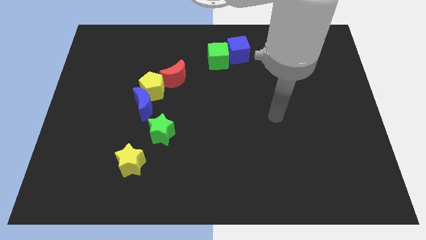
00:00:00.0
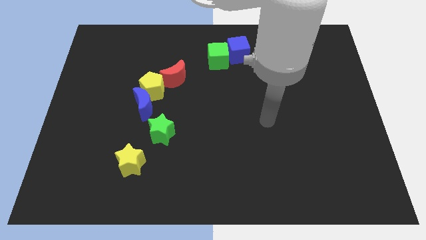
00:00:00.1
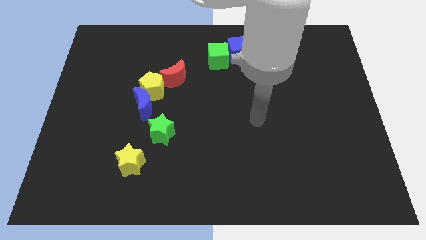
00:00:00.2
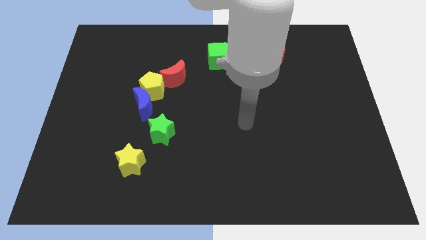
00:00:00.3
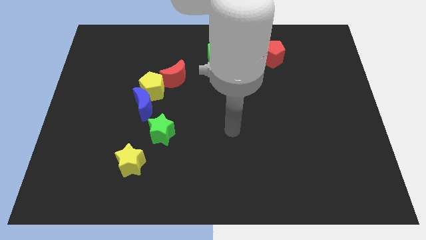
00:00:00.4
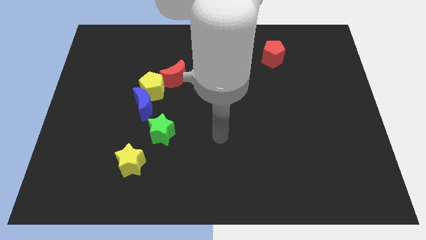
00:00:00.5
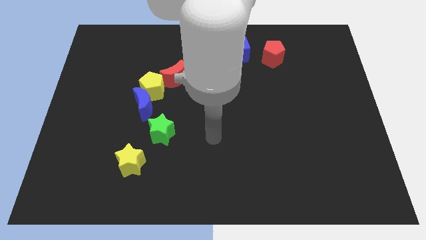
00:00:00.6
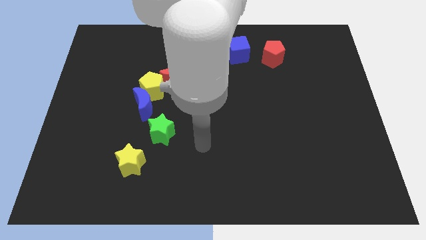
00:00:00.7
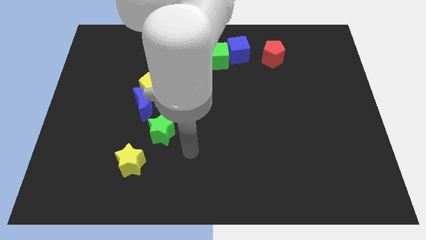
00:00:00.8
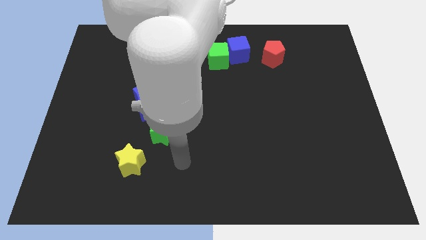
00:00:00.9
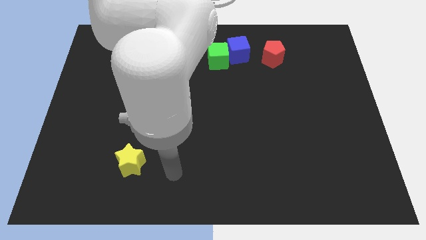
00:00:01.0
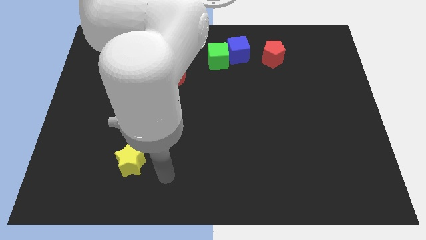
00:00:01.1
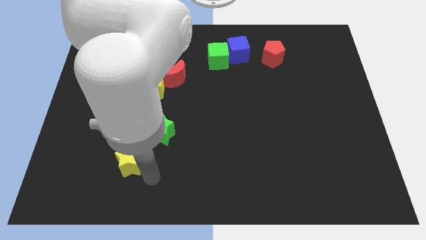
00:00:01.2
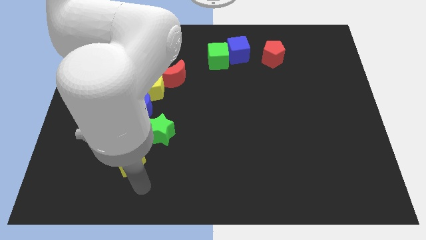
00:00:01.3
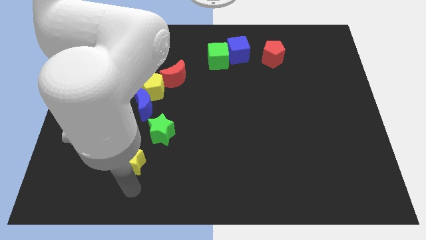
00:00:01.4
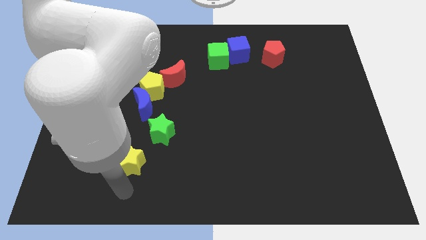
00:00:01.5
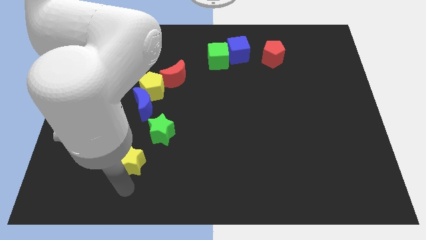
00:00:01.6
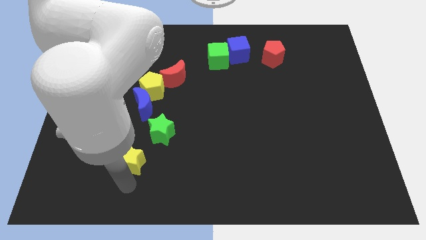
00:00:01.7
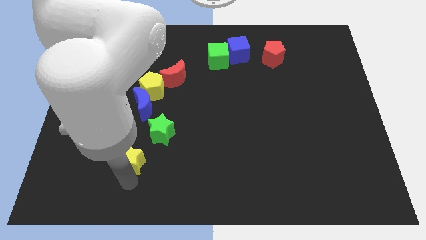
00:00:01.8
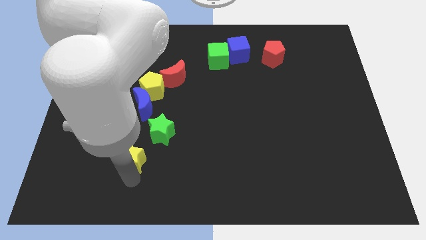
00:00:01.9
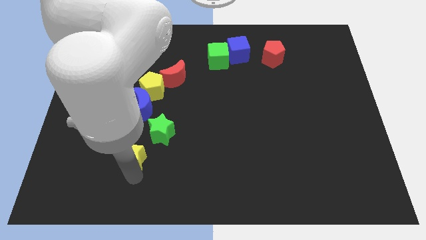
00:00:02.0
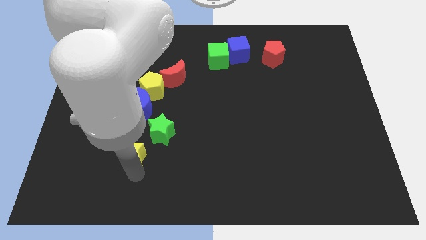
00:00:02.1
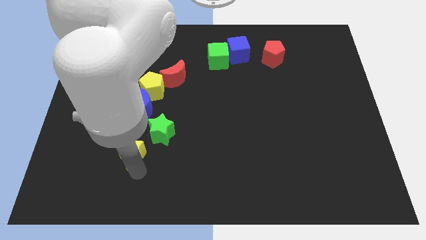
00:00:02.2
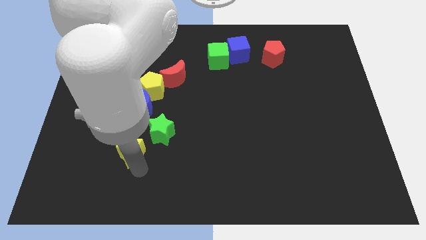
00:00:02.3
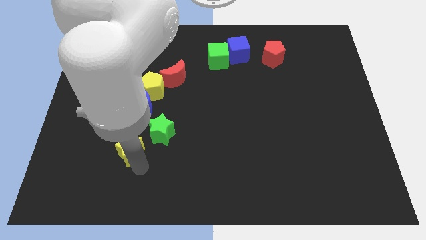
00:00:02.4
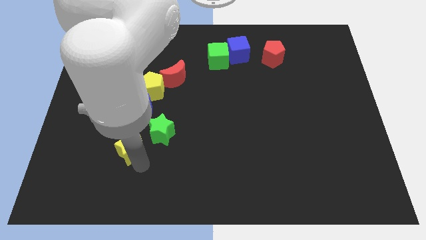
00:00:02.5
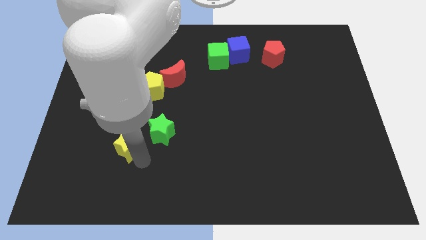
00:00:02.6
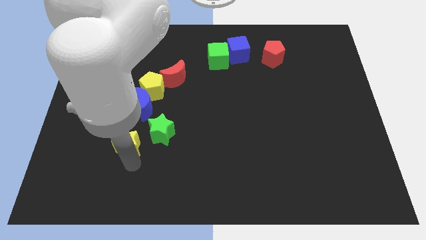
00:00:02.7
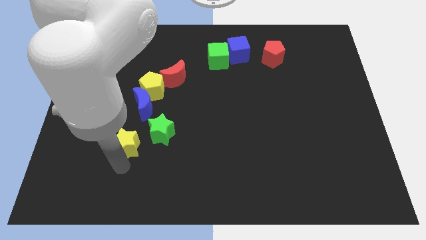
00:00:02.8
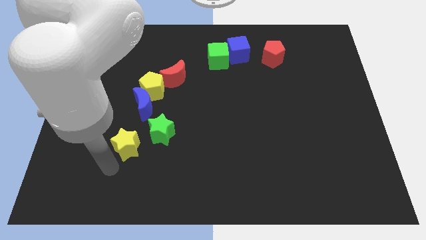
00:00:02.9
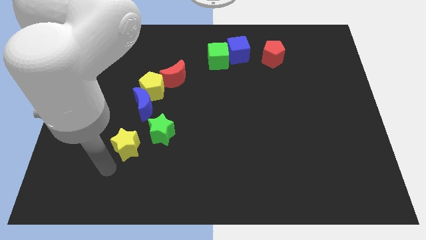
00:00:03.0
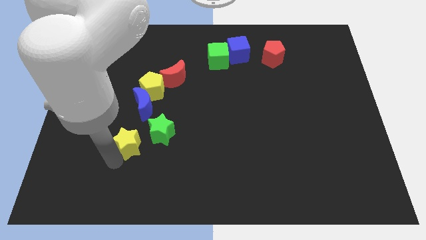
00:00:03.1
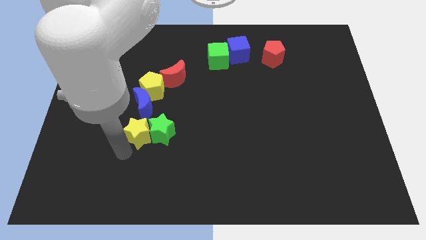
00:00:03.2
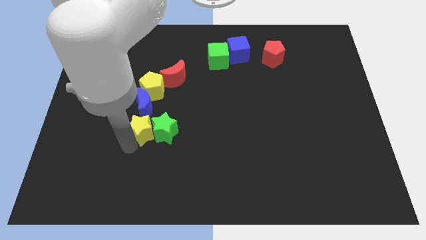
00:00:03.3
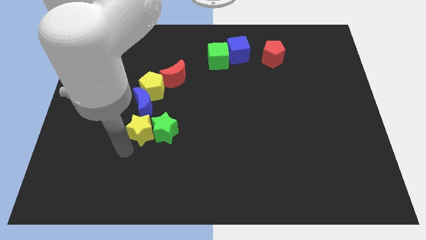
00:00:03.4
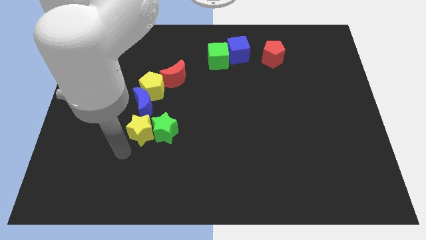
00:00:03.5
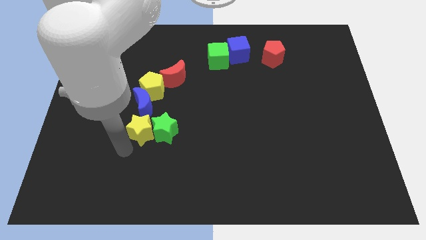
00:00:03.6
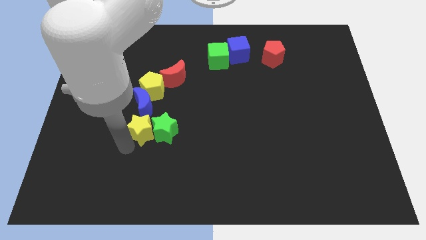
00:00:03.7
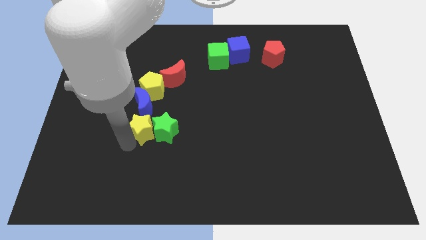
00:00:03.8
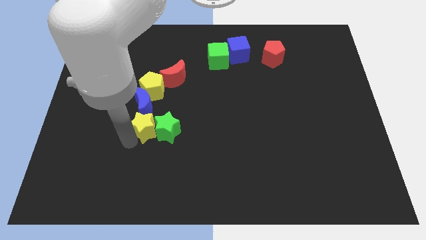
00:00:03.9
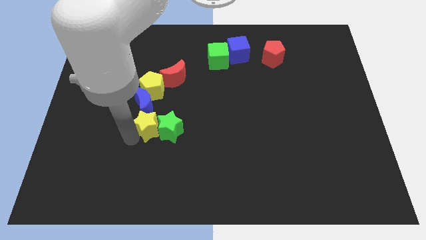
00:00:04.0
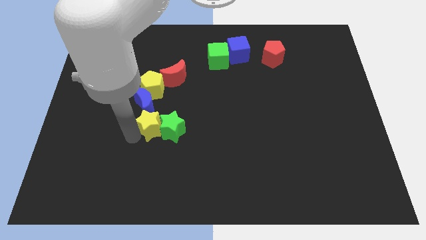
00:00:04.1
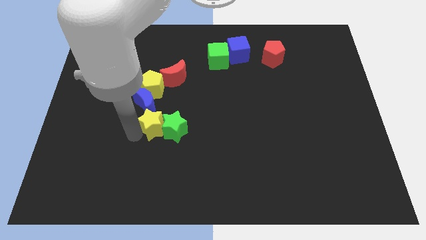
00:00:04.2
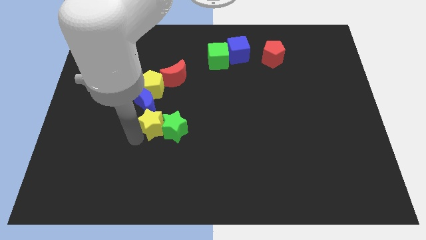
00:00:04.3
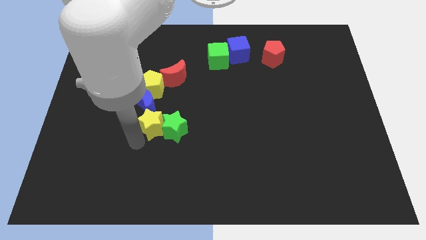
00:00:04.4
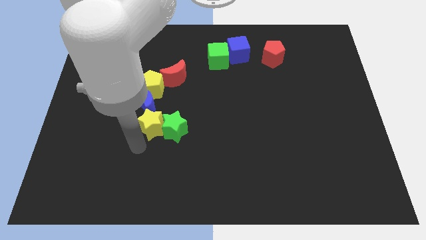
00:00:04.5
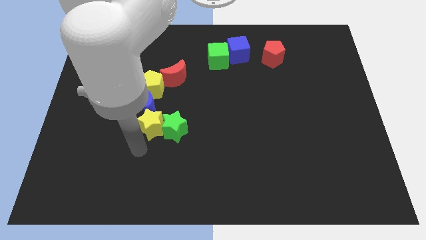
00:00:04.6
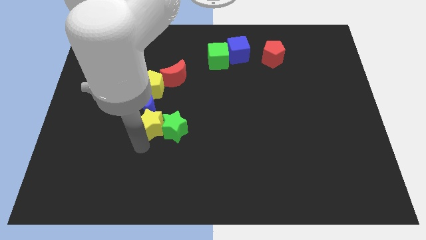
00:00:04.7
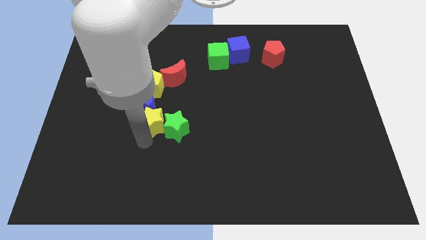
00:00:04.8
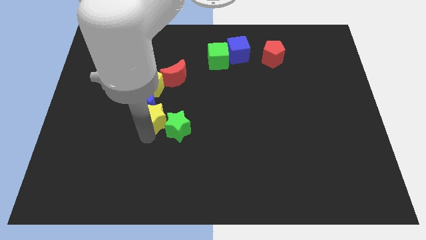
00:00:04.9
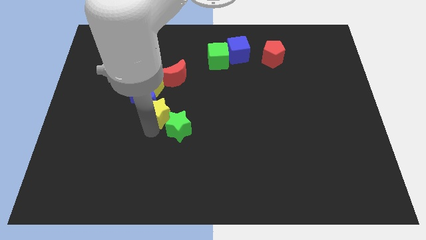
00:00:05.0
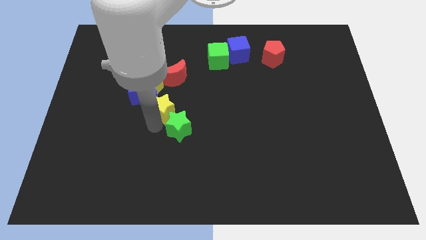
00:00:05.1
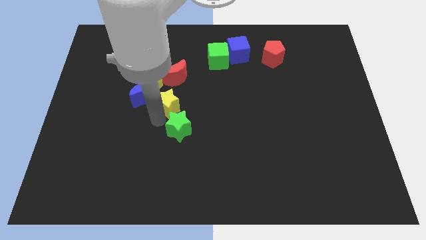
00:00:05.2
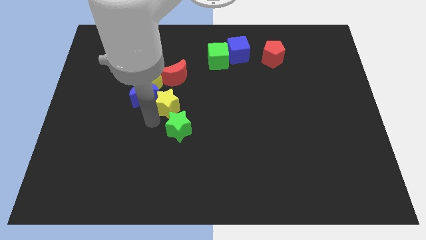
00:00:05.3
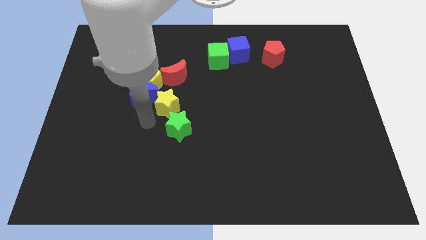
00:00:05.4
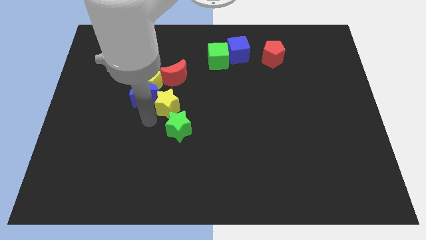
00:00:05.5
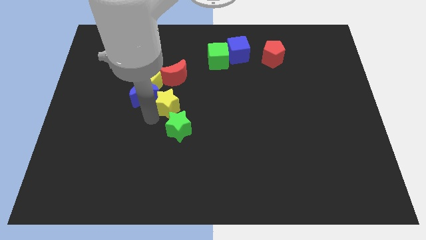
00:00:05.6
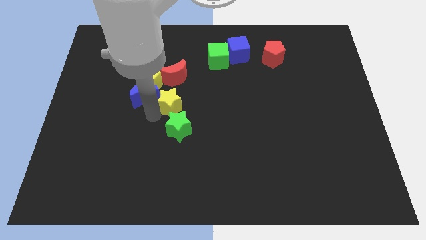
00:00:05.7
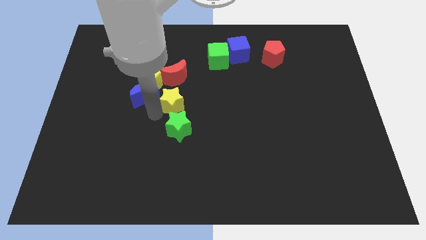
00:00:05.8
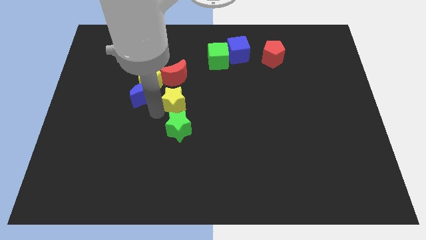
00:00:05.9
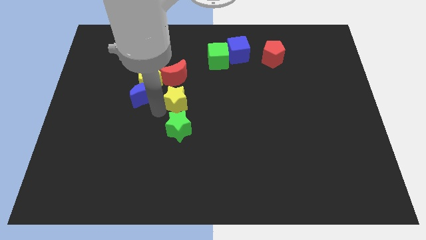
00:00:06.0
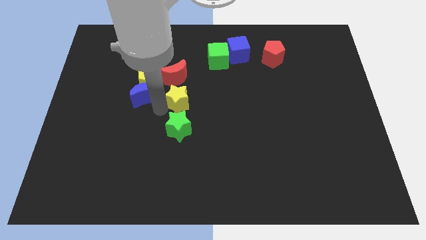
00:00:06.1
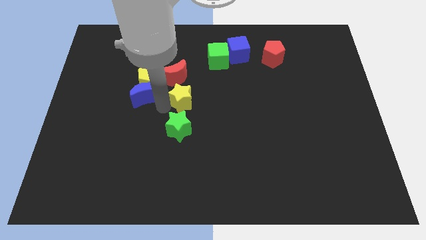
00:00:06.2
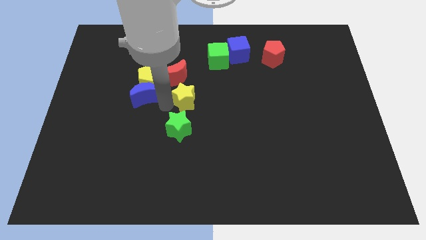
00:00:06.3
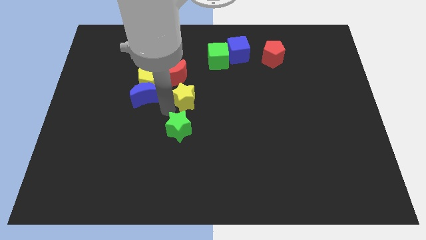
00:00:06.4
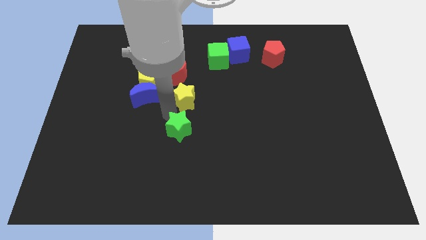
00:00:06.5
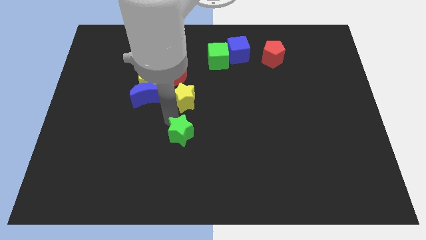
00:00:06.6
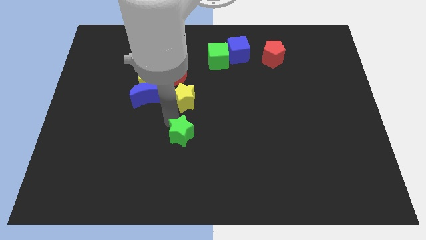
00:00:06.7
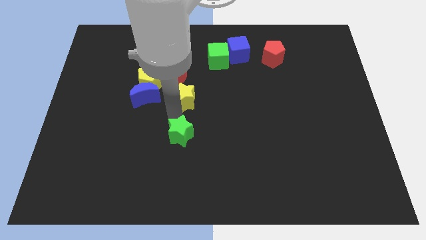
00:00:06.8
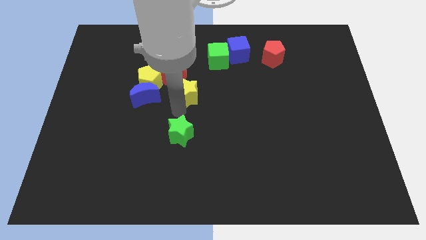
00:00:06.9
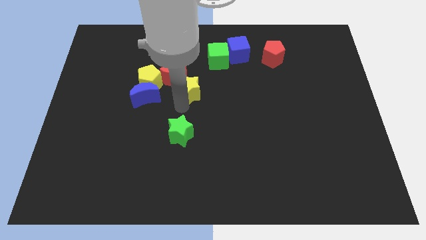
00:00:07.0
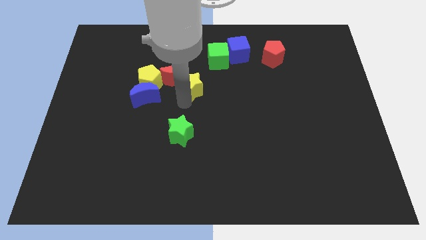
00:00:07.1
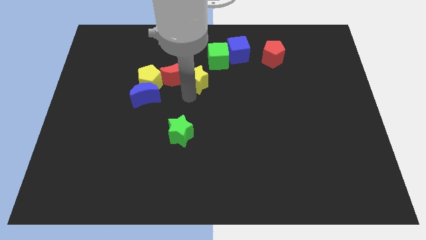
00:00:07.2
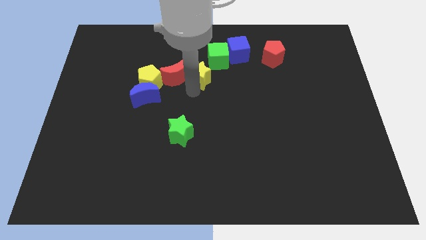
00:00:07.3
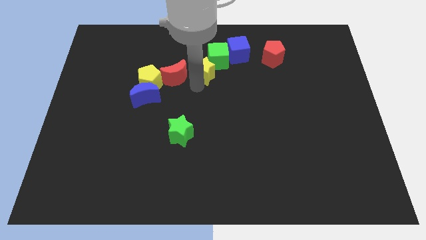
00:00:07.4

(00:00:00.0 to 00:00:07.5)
put the yellow star close to the green cube

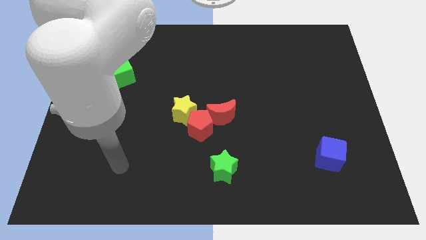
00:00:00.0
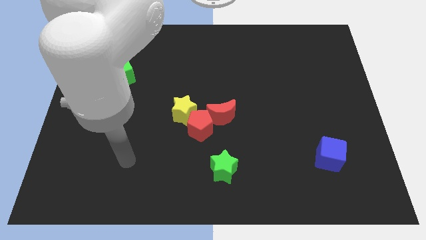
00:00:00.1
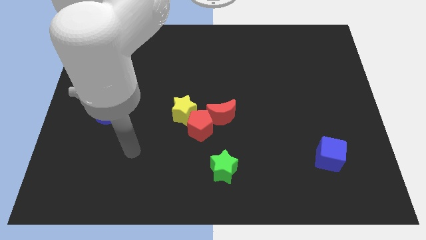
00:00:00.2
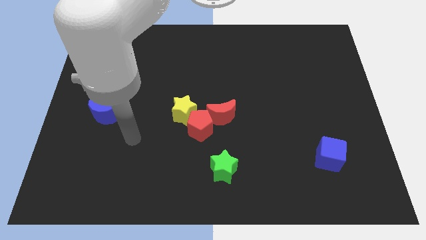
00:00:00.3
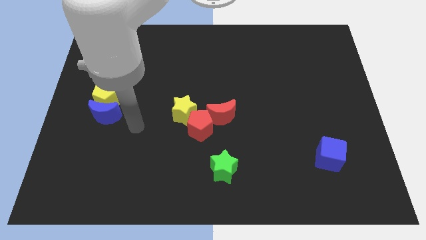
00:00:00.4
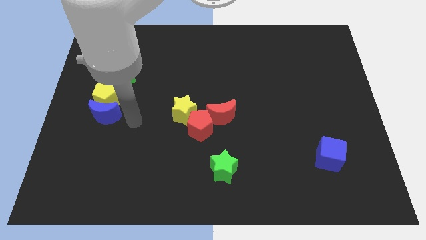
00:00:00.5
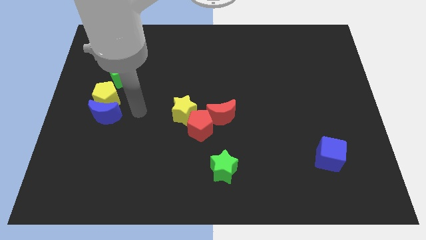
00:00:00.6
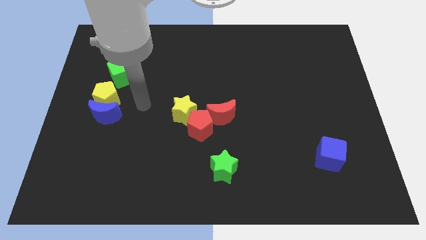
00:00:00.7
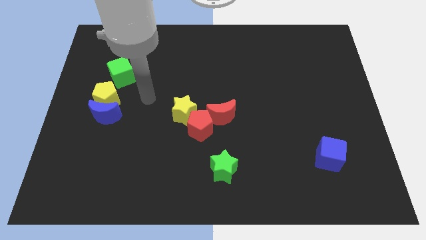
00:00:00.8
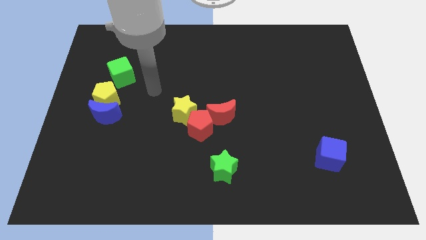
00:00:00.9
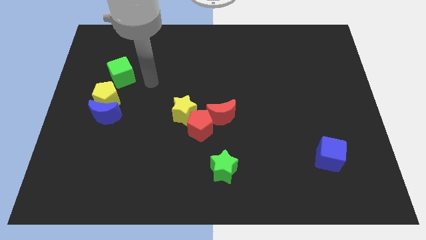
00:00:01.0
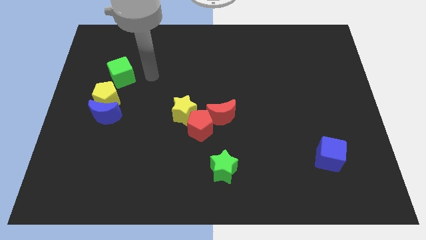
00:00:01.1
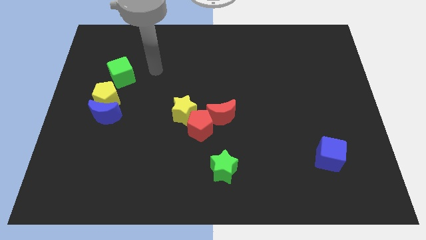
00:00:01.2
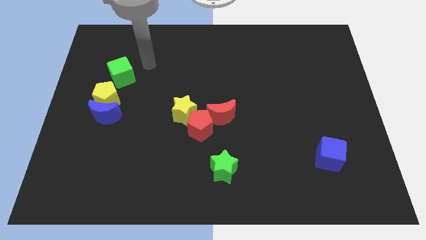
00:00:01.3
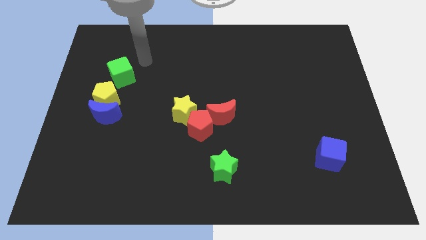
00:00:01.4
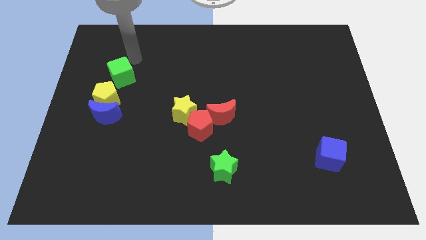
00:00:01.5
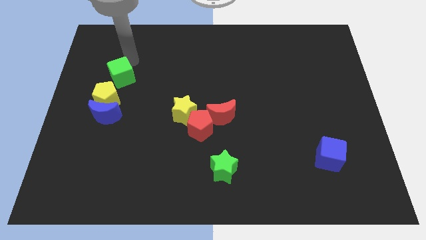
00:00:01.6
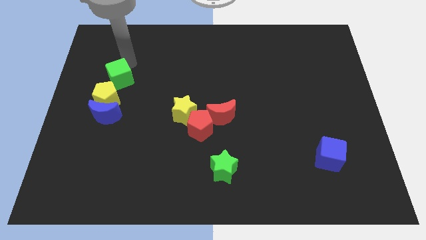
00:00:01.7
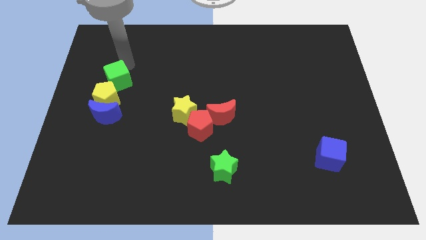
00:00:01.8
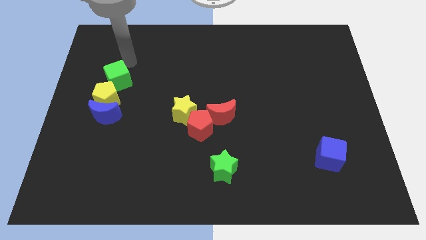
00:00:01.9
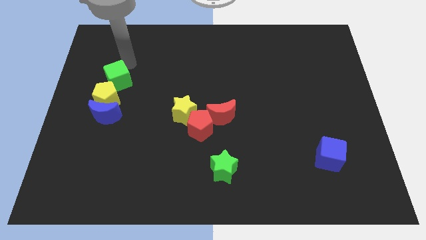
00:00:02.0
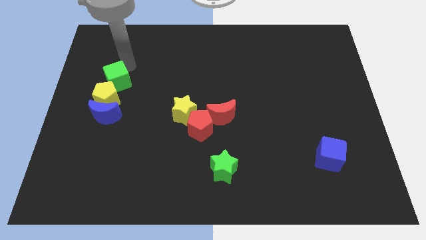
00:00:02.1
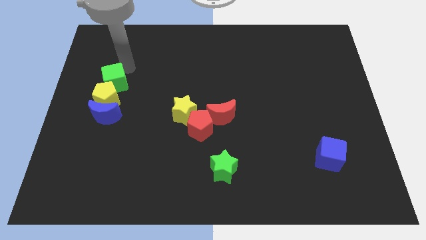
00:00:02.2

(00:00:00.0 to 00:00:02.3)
put the green cube next to the yellow pentagon
